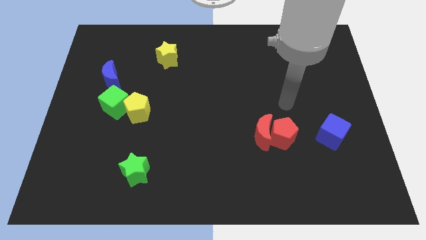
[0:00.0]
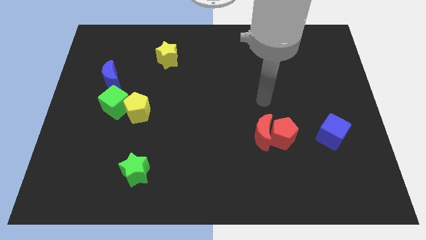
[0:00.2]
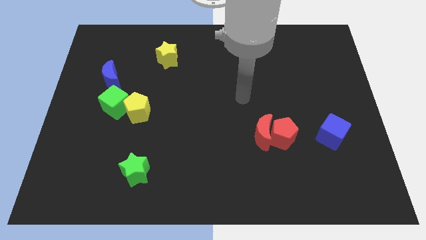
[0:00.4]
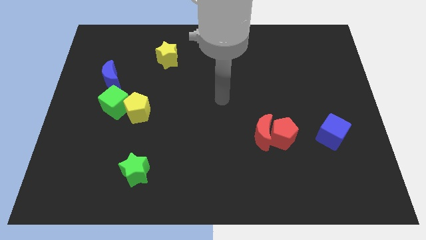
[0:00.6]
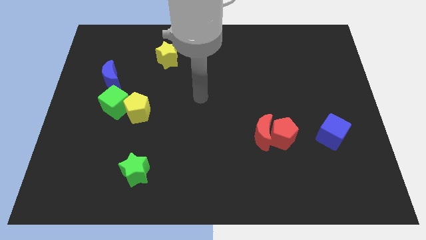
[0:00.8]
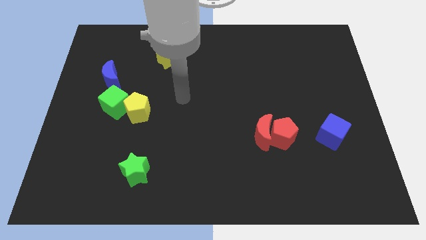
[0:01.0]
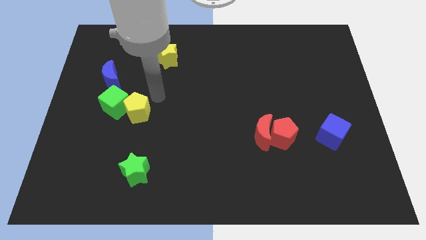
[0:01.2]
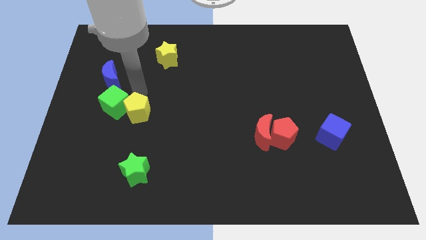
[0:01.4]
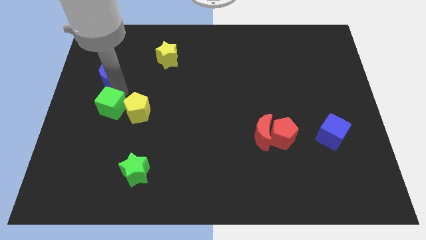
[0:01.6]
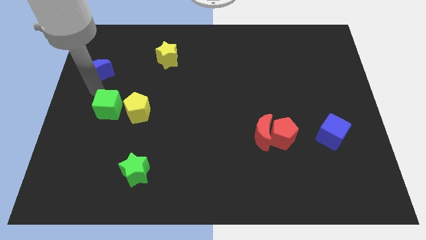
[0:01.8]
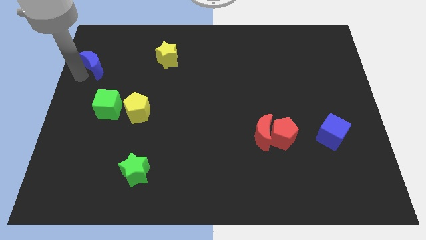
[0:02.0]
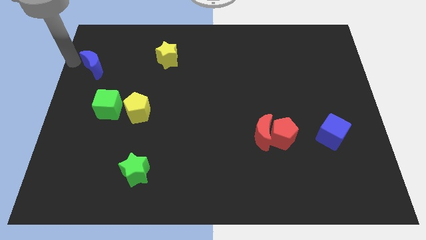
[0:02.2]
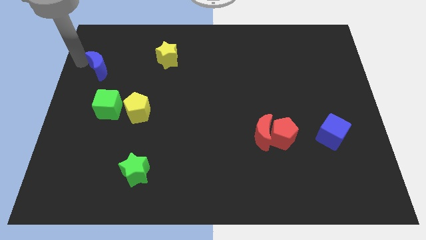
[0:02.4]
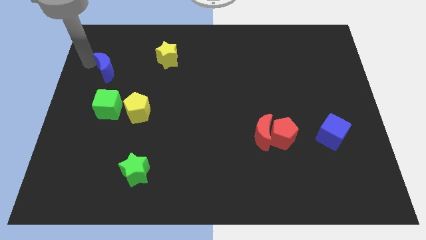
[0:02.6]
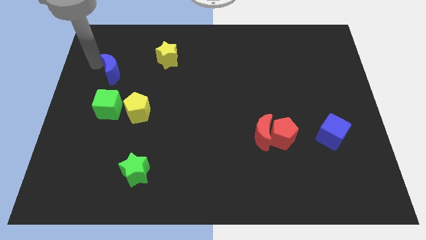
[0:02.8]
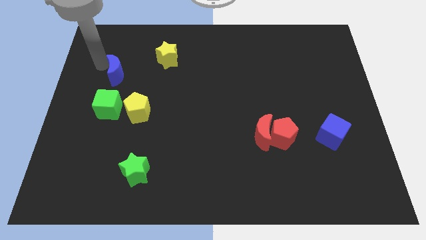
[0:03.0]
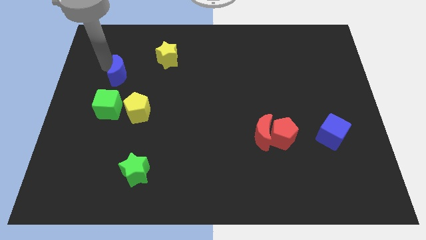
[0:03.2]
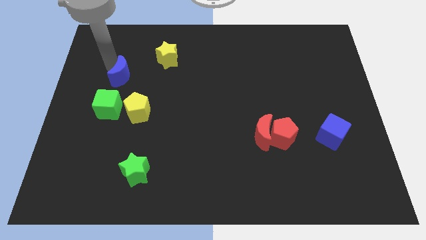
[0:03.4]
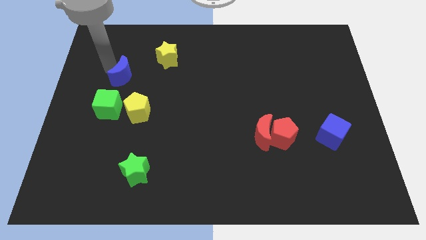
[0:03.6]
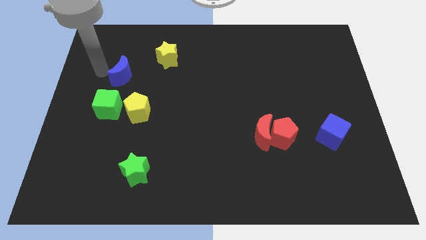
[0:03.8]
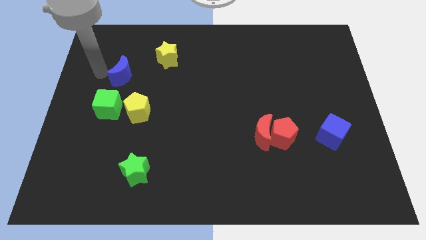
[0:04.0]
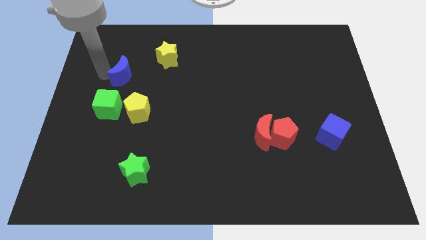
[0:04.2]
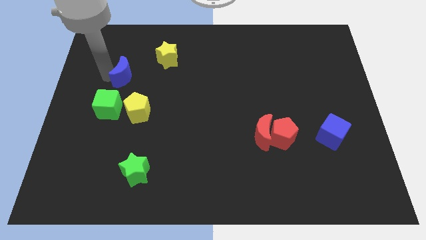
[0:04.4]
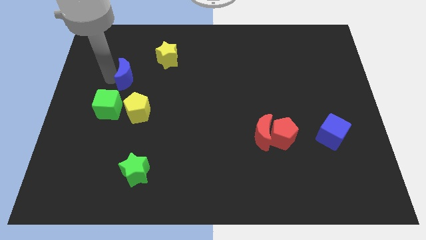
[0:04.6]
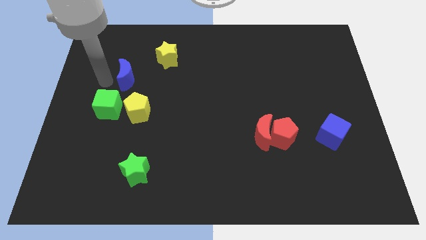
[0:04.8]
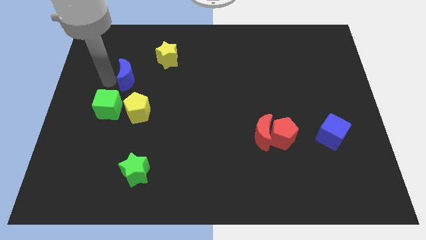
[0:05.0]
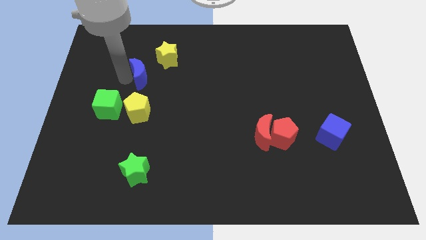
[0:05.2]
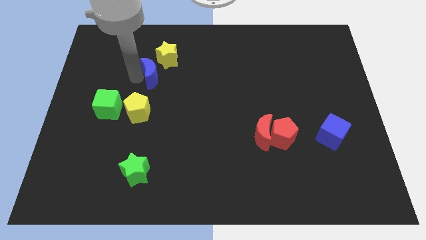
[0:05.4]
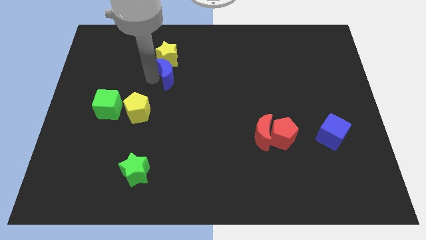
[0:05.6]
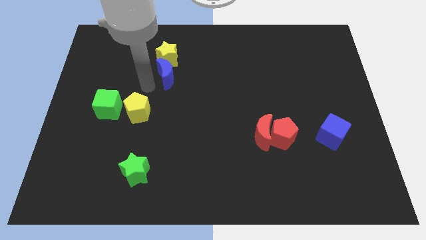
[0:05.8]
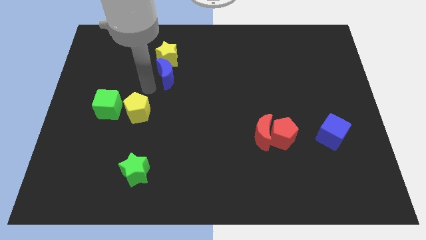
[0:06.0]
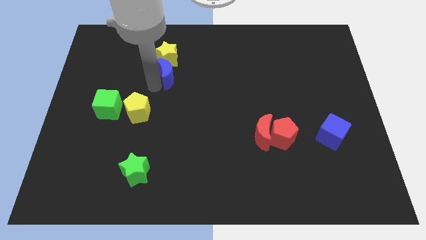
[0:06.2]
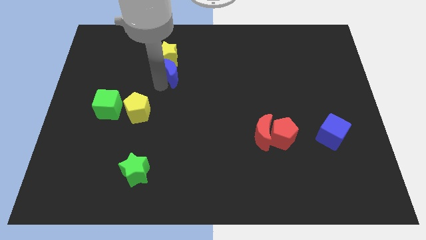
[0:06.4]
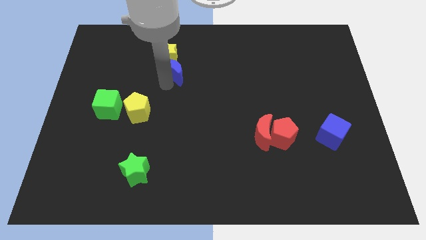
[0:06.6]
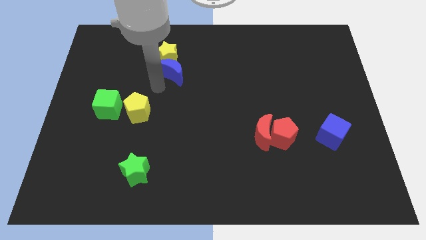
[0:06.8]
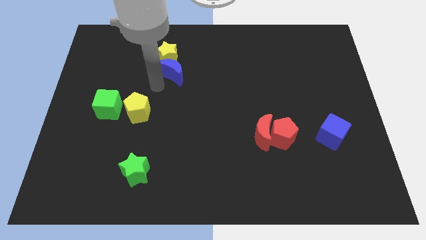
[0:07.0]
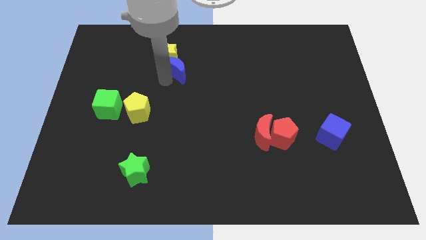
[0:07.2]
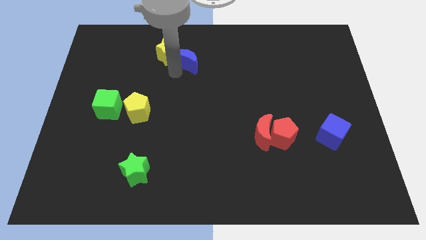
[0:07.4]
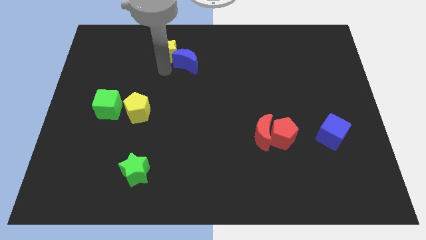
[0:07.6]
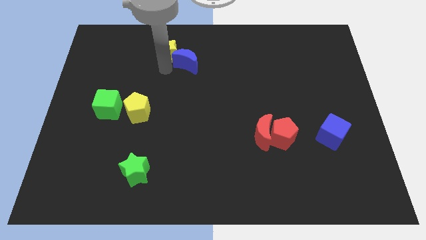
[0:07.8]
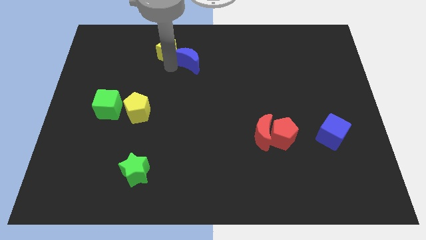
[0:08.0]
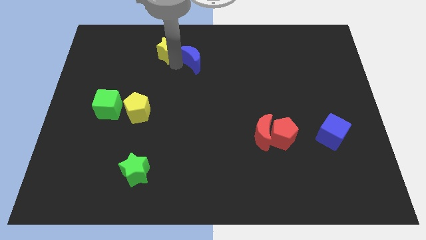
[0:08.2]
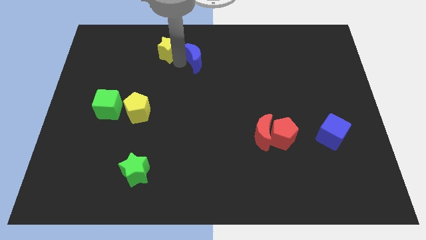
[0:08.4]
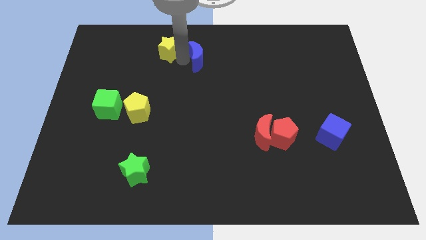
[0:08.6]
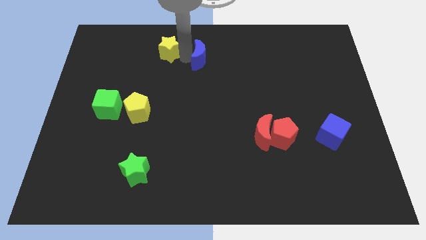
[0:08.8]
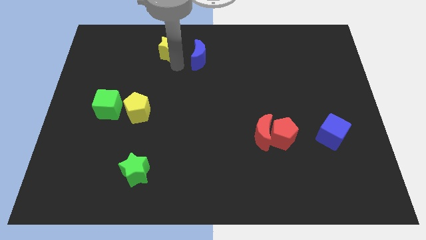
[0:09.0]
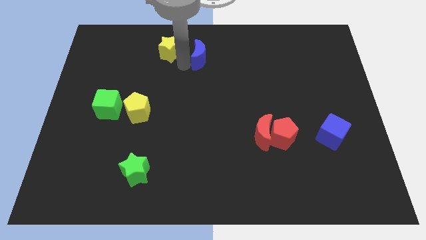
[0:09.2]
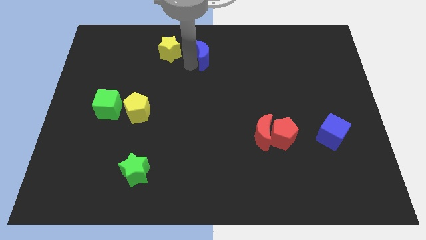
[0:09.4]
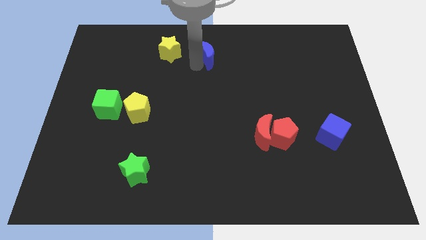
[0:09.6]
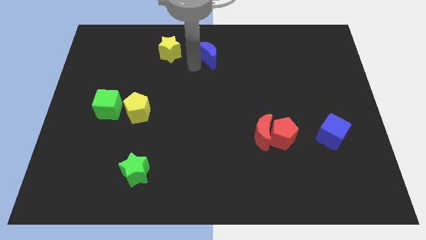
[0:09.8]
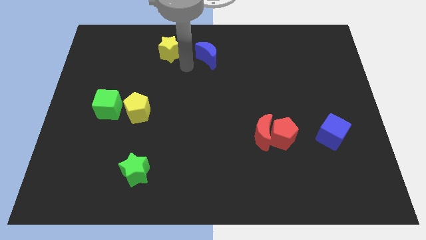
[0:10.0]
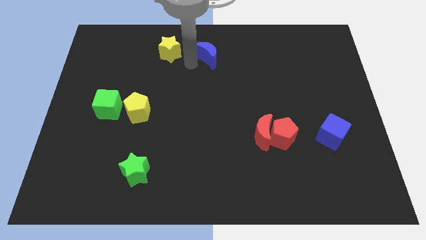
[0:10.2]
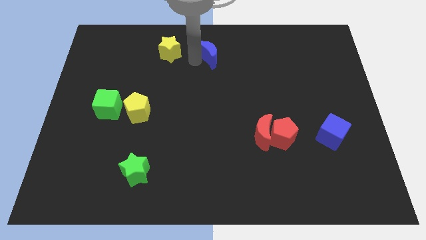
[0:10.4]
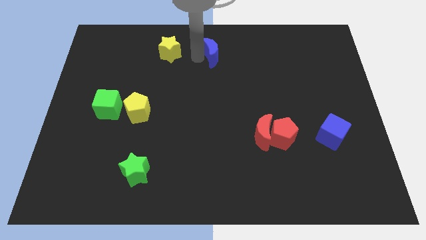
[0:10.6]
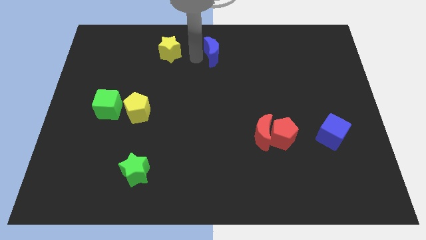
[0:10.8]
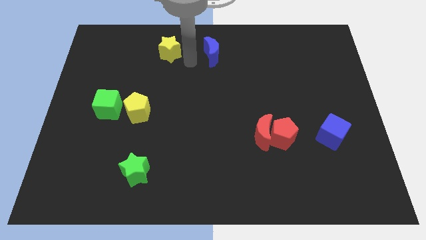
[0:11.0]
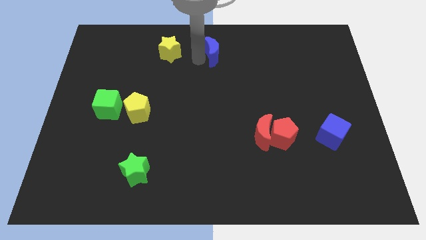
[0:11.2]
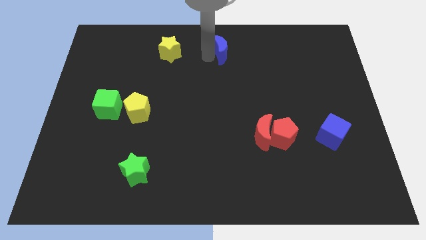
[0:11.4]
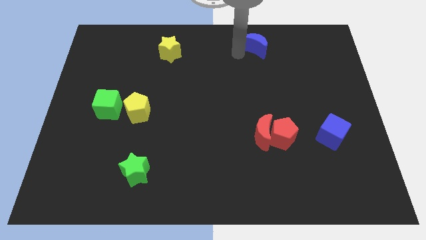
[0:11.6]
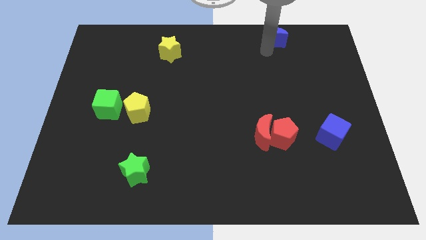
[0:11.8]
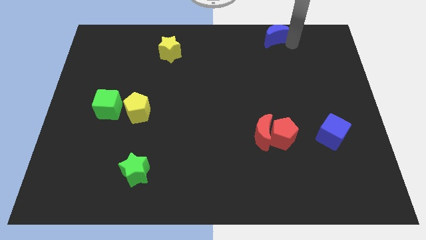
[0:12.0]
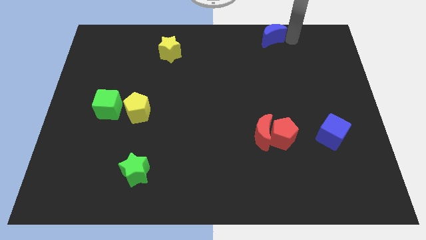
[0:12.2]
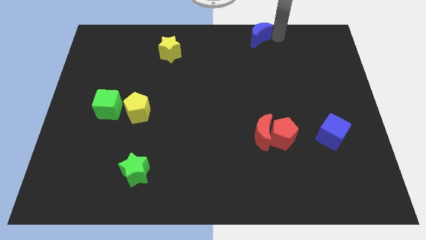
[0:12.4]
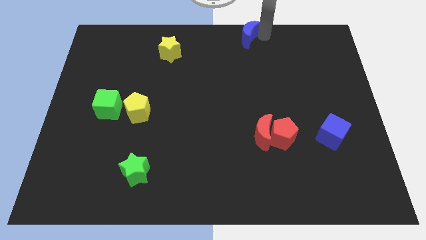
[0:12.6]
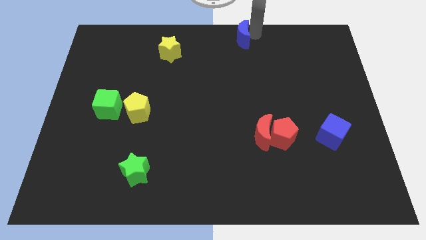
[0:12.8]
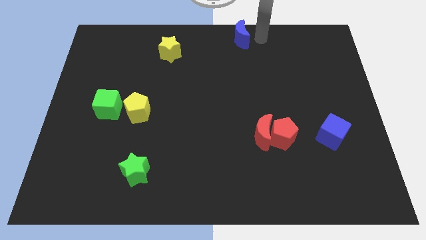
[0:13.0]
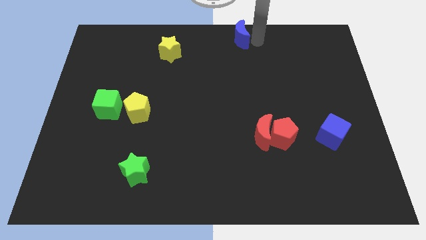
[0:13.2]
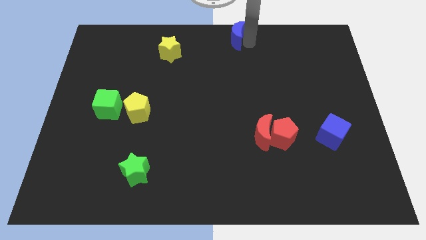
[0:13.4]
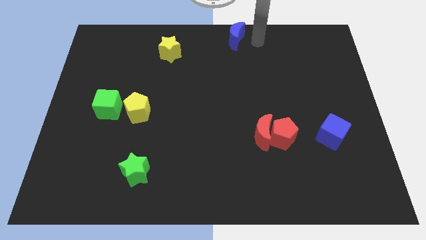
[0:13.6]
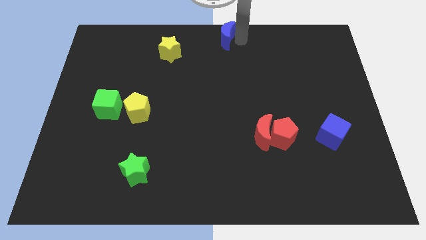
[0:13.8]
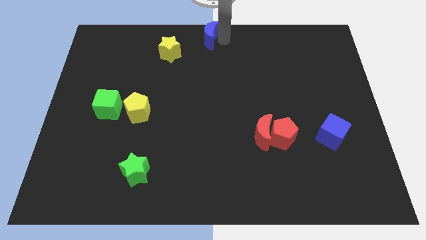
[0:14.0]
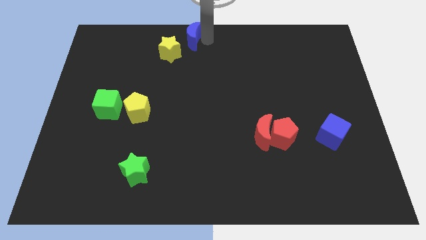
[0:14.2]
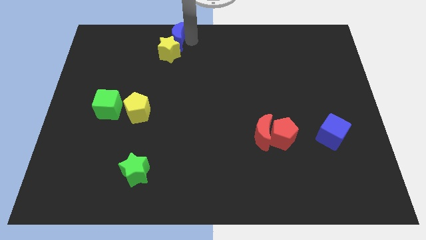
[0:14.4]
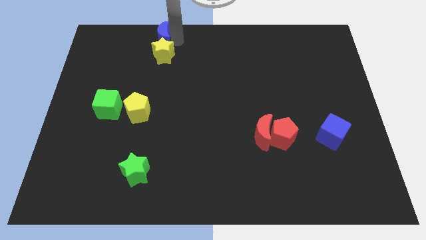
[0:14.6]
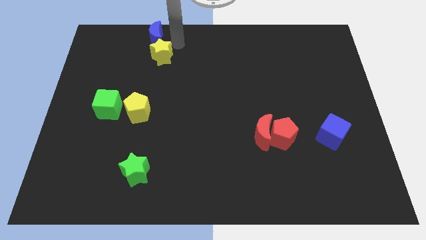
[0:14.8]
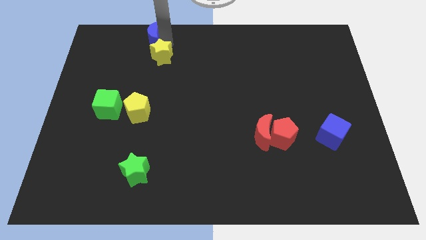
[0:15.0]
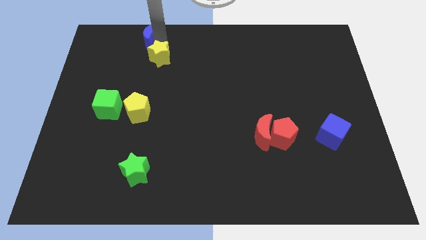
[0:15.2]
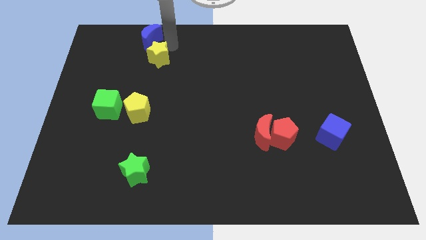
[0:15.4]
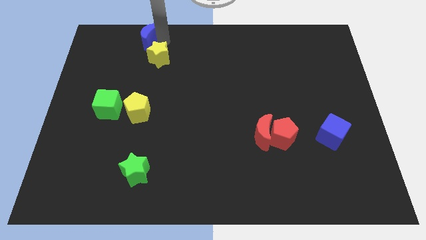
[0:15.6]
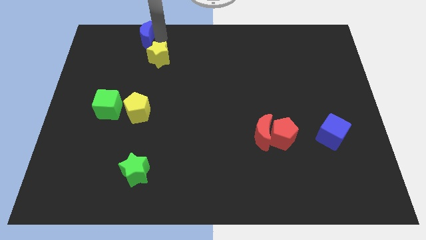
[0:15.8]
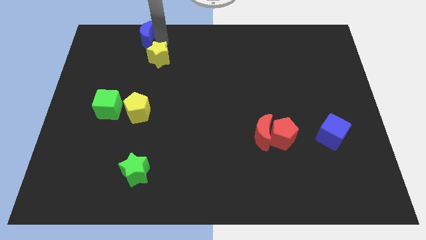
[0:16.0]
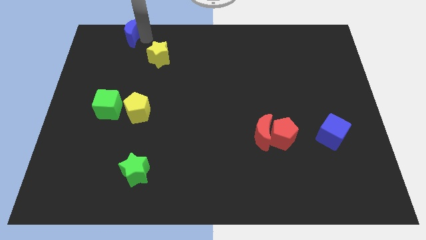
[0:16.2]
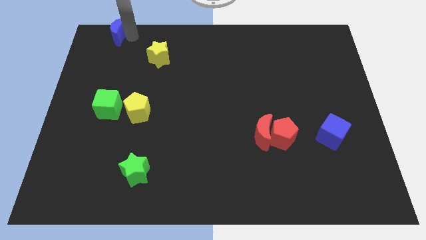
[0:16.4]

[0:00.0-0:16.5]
push the blue moon to the top left corner

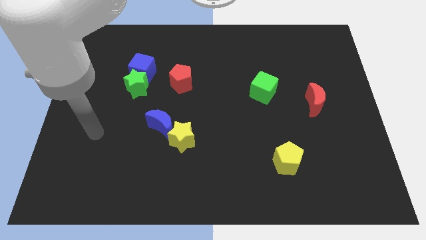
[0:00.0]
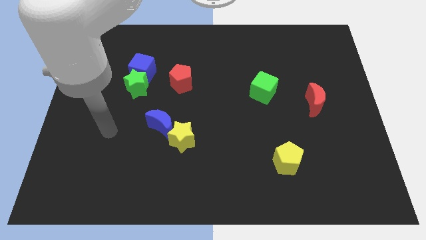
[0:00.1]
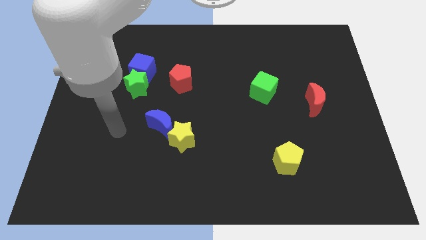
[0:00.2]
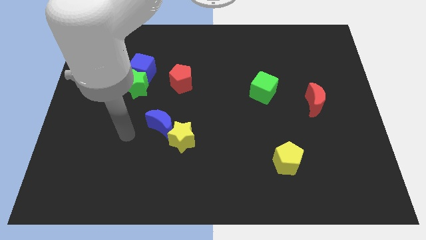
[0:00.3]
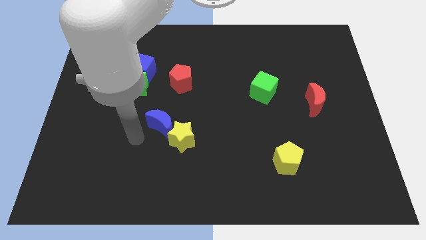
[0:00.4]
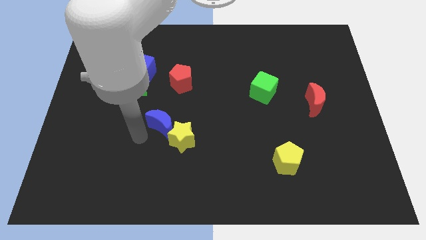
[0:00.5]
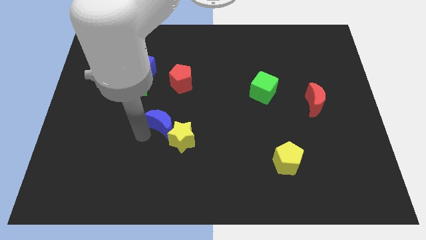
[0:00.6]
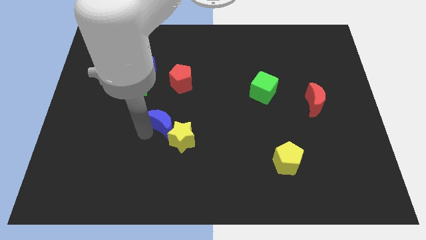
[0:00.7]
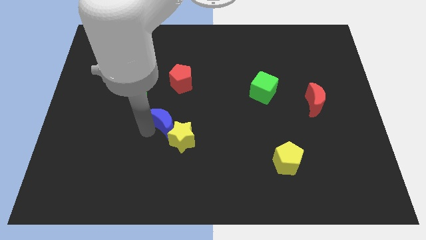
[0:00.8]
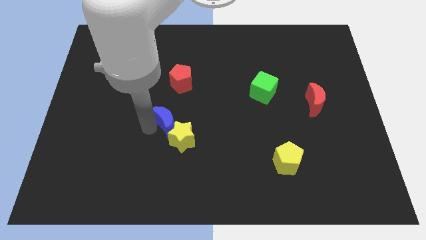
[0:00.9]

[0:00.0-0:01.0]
push the blue moon to the center
